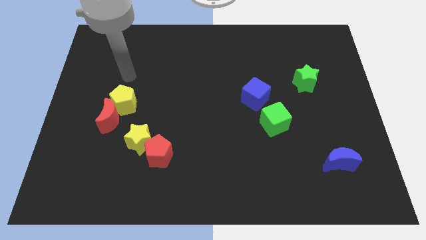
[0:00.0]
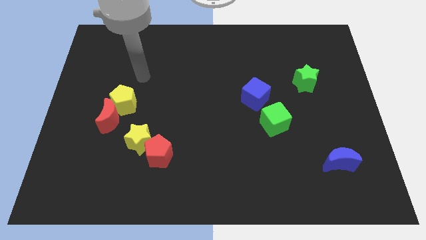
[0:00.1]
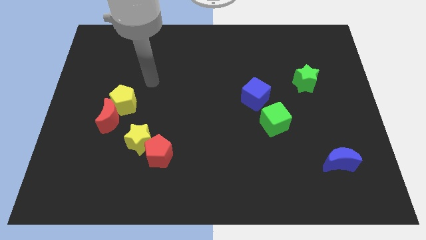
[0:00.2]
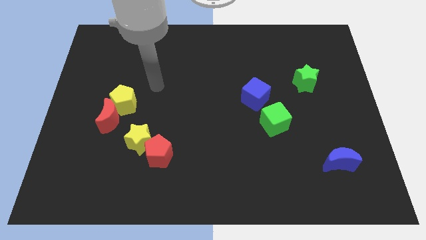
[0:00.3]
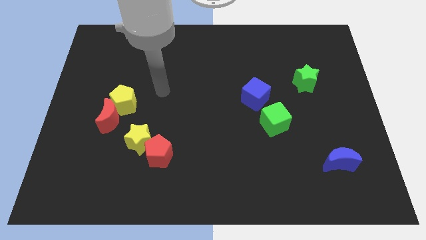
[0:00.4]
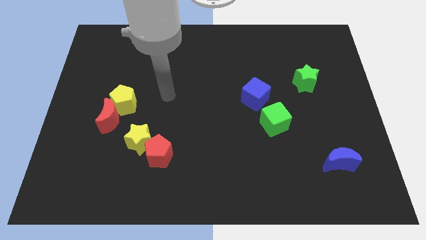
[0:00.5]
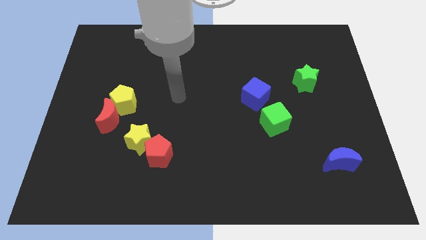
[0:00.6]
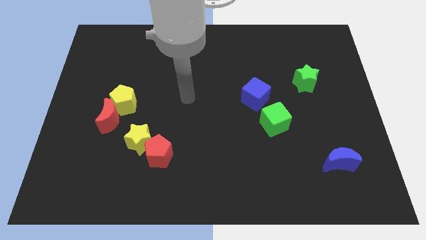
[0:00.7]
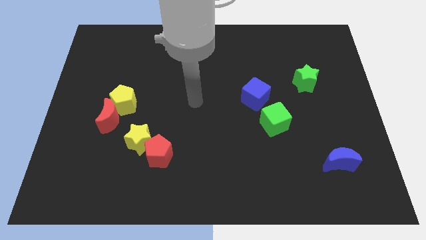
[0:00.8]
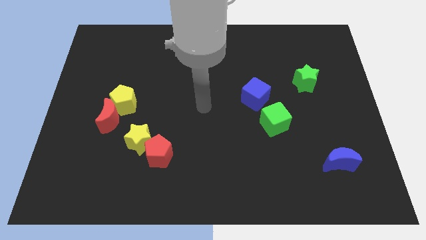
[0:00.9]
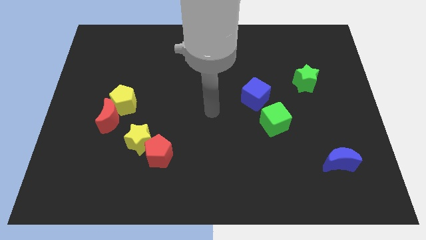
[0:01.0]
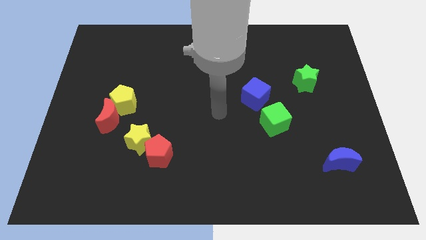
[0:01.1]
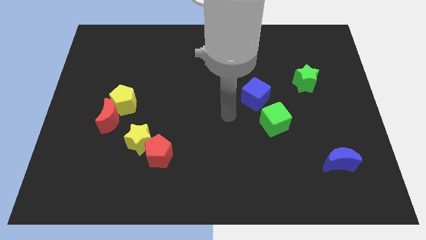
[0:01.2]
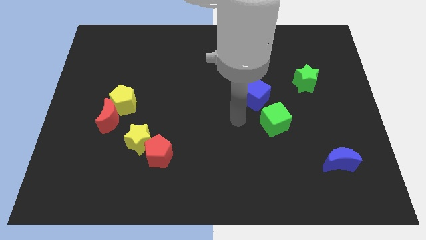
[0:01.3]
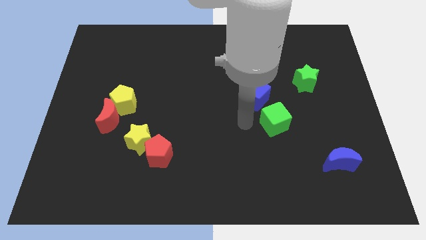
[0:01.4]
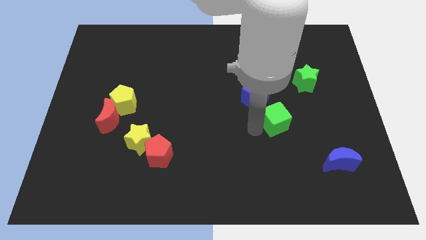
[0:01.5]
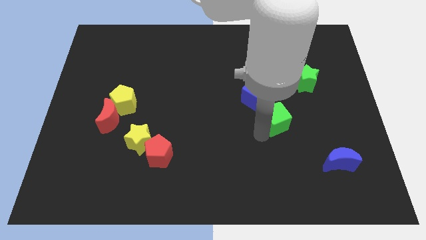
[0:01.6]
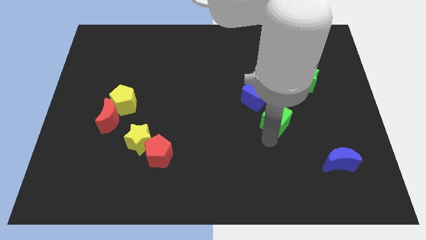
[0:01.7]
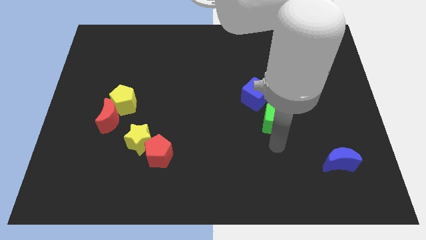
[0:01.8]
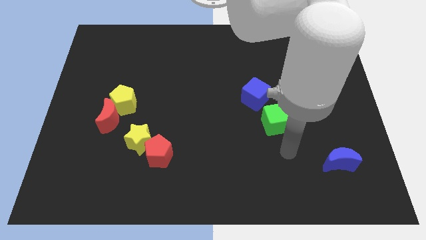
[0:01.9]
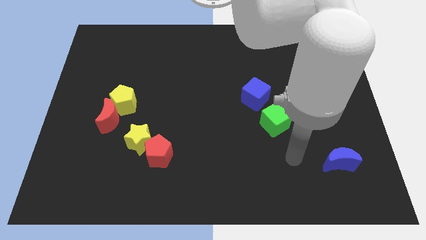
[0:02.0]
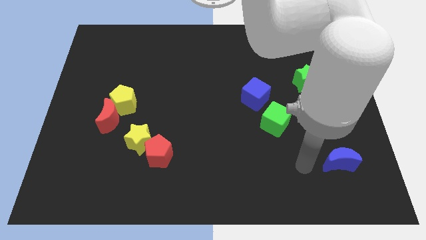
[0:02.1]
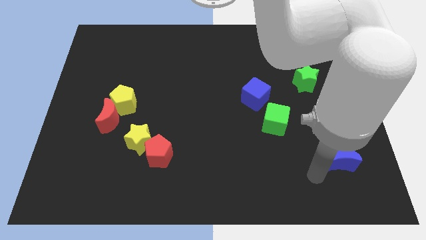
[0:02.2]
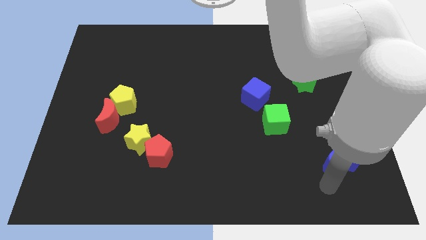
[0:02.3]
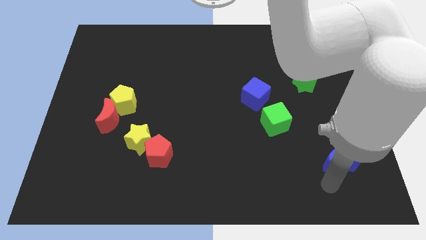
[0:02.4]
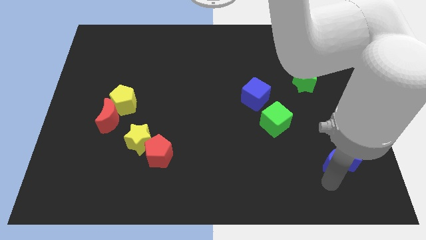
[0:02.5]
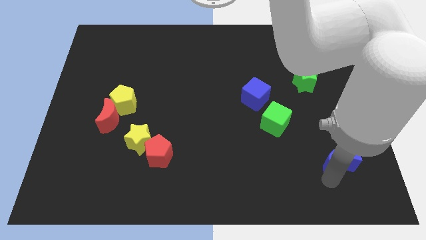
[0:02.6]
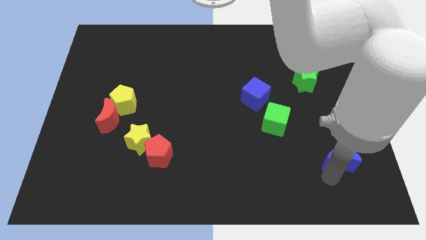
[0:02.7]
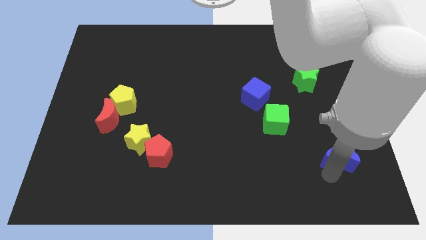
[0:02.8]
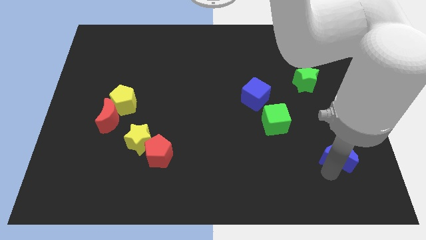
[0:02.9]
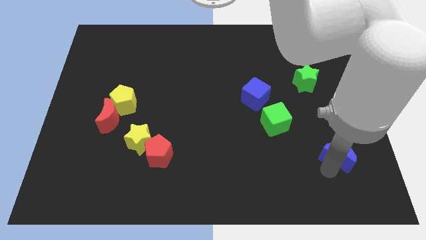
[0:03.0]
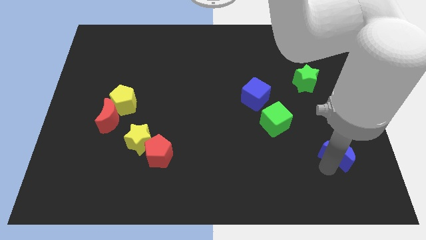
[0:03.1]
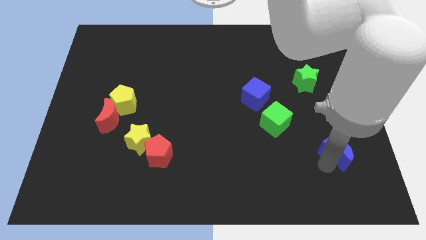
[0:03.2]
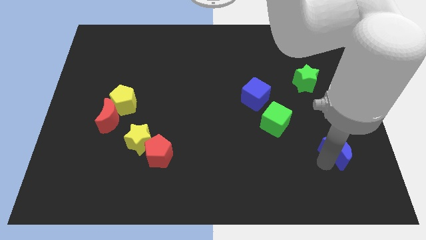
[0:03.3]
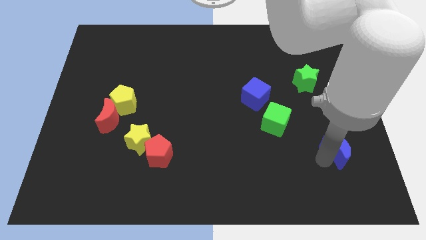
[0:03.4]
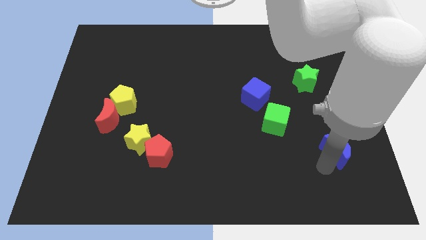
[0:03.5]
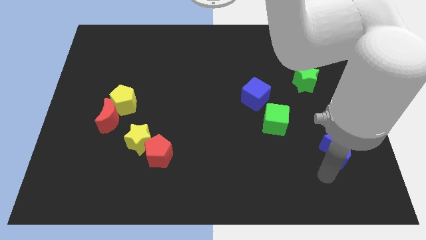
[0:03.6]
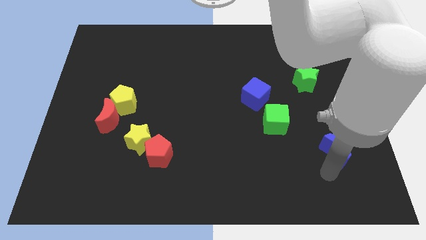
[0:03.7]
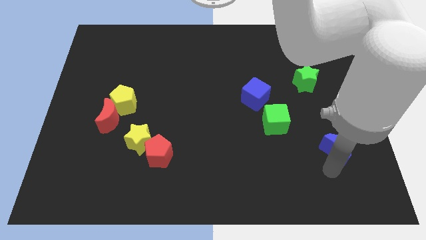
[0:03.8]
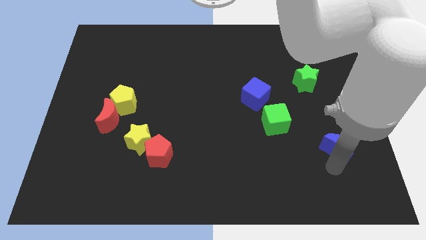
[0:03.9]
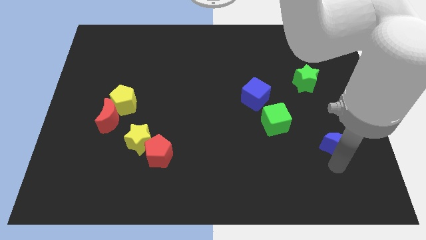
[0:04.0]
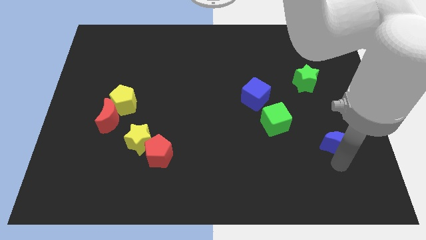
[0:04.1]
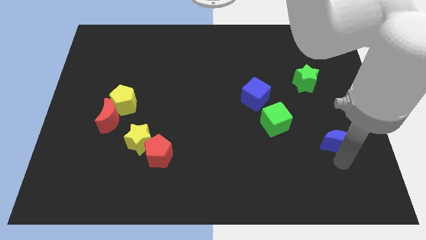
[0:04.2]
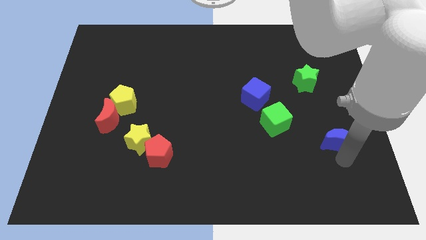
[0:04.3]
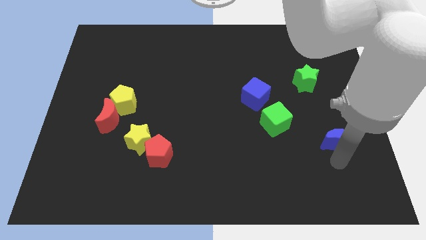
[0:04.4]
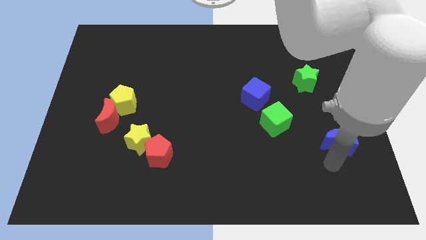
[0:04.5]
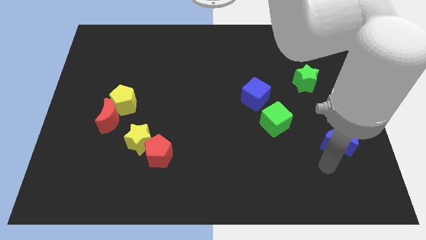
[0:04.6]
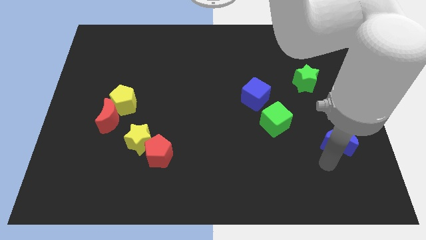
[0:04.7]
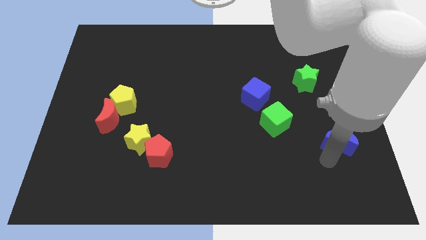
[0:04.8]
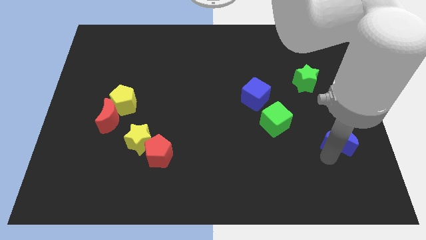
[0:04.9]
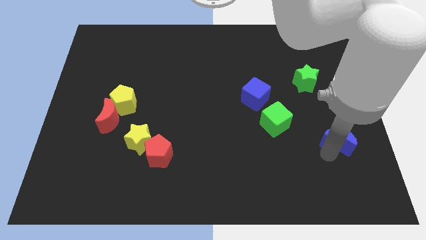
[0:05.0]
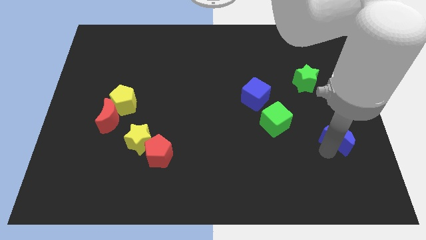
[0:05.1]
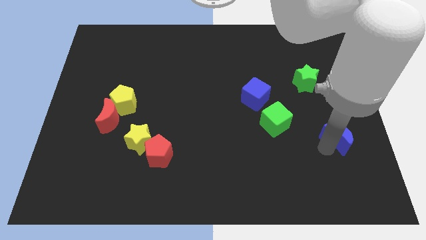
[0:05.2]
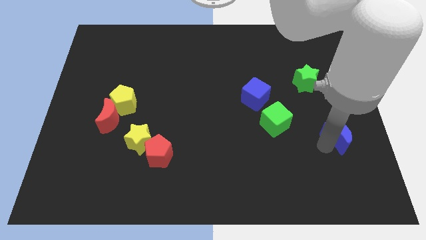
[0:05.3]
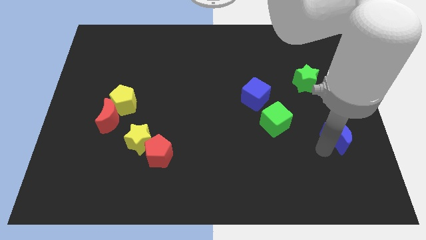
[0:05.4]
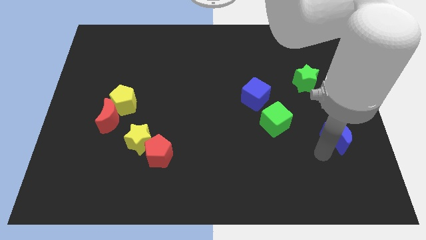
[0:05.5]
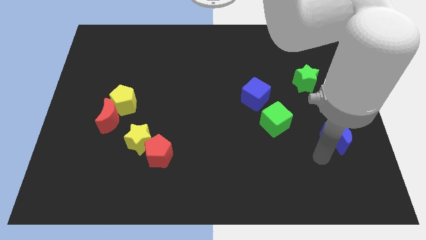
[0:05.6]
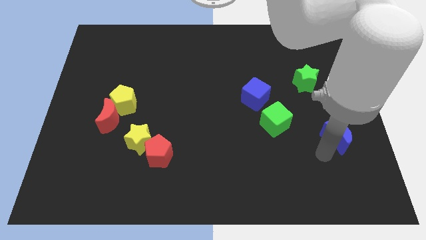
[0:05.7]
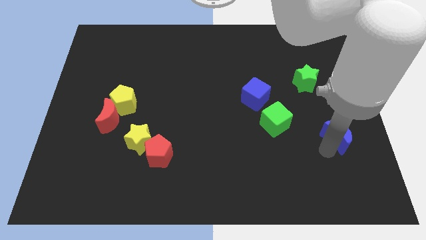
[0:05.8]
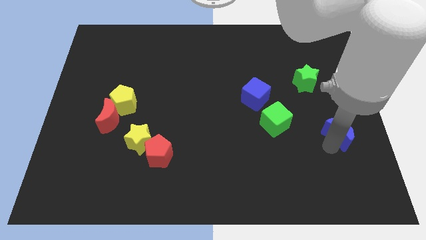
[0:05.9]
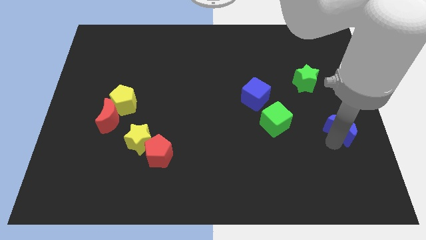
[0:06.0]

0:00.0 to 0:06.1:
slide the blue moon to the center right
